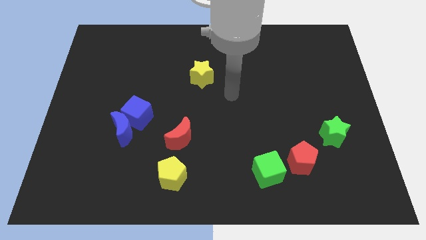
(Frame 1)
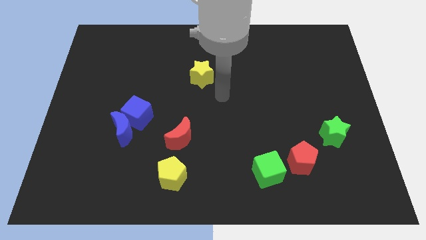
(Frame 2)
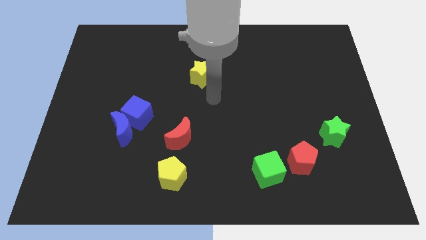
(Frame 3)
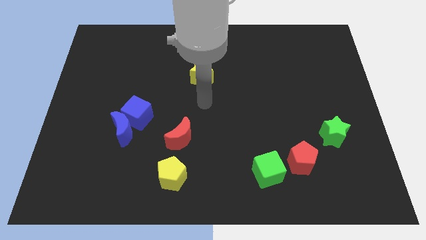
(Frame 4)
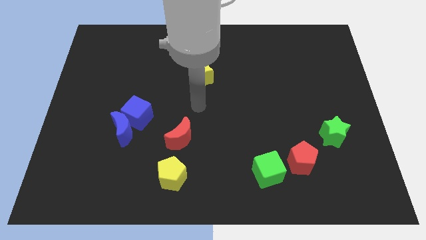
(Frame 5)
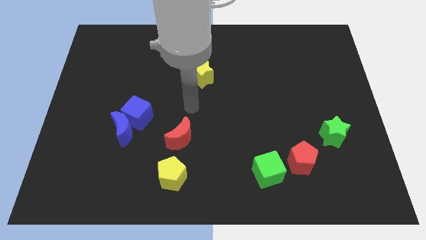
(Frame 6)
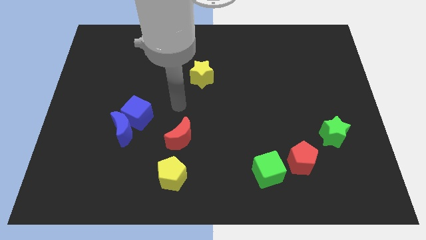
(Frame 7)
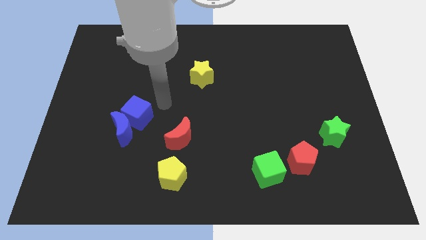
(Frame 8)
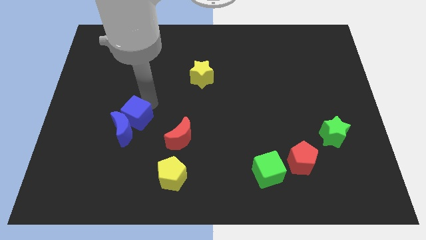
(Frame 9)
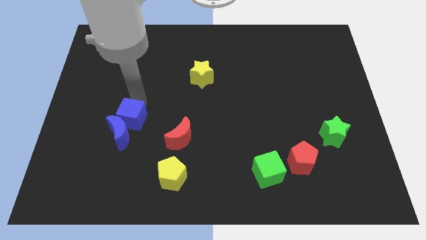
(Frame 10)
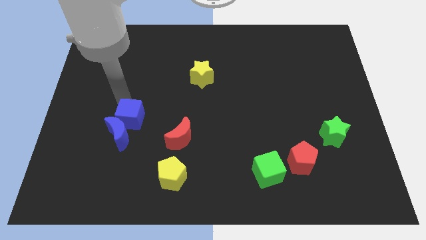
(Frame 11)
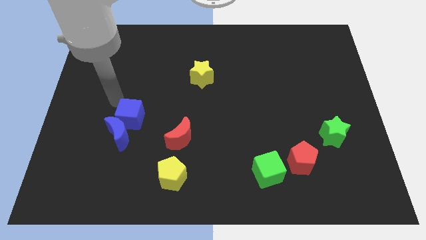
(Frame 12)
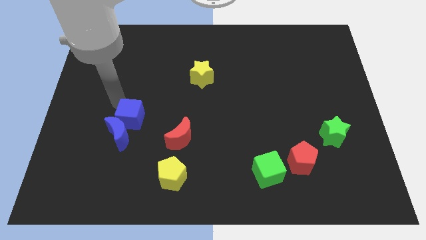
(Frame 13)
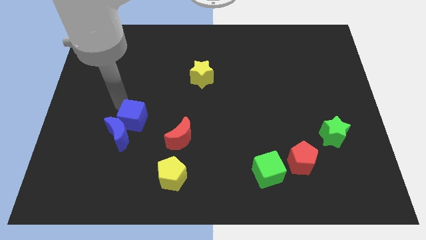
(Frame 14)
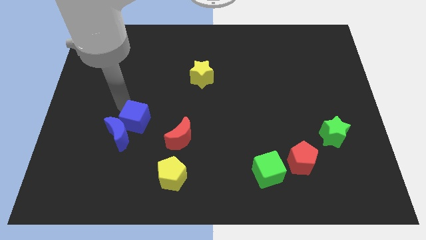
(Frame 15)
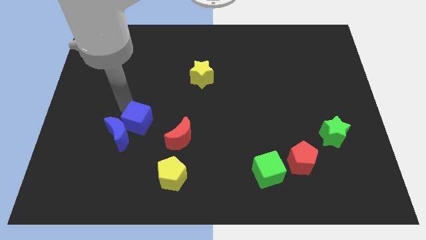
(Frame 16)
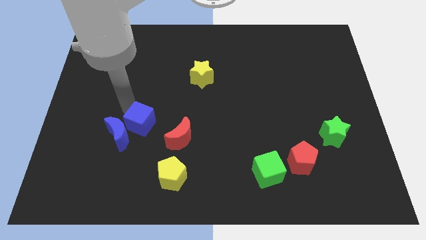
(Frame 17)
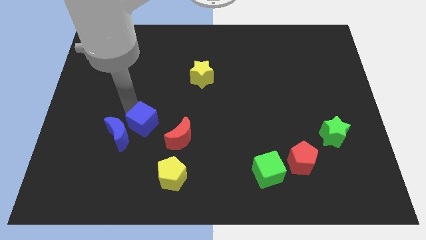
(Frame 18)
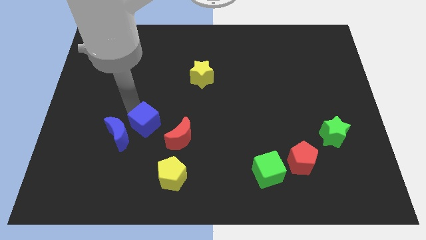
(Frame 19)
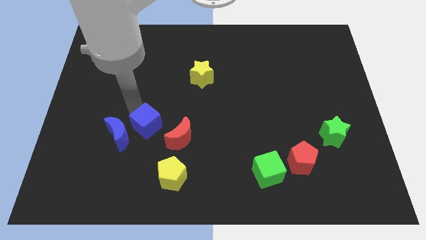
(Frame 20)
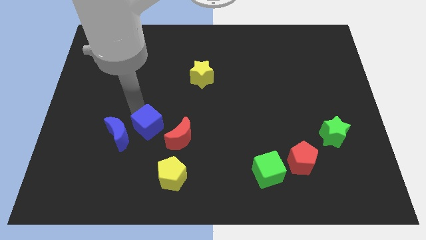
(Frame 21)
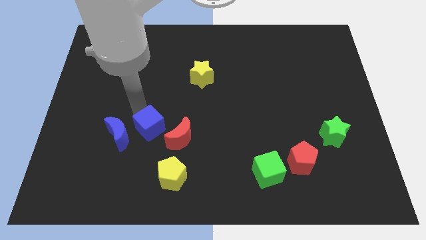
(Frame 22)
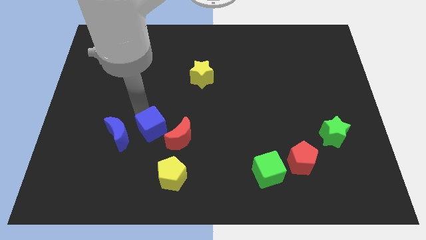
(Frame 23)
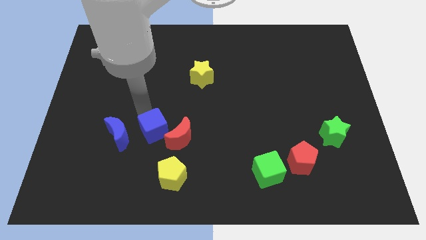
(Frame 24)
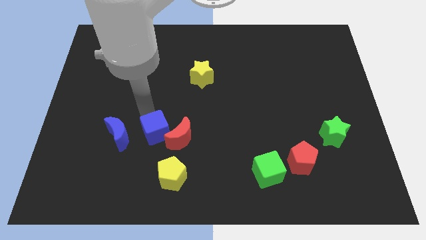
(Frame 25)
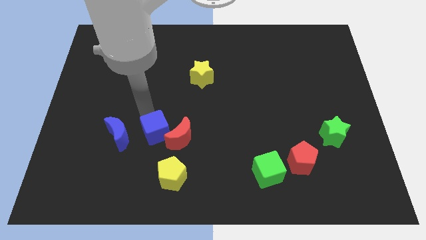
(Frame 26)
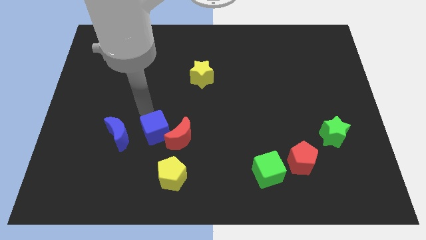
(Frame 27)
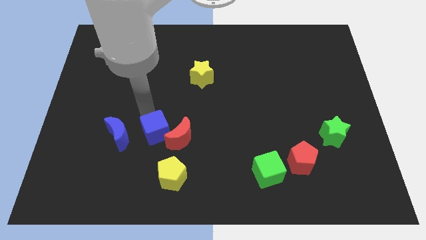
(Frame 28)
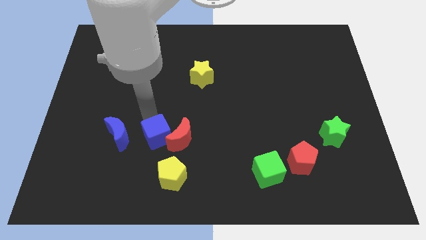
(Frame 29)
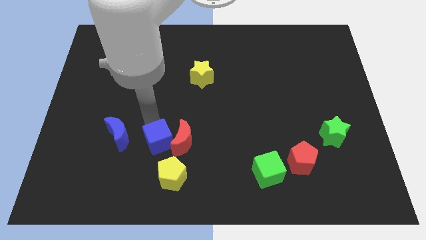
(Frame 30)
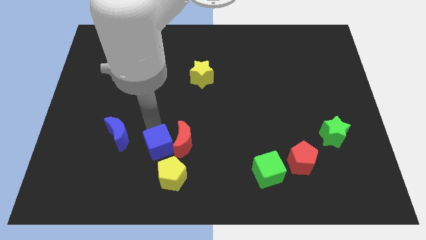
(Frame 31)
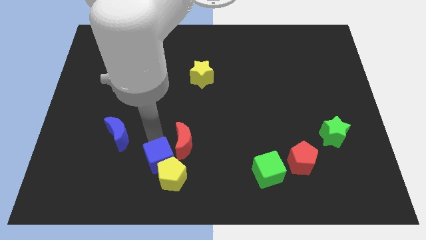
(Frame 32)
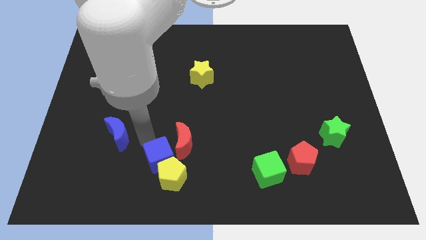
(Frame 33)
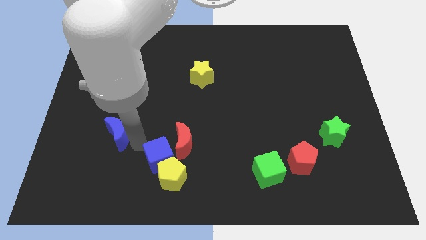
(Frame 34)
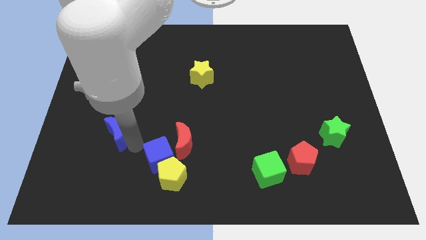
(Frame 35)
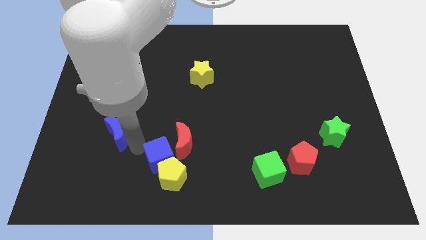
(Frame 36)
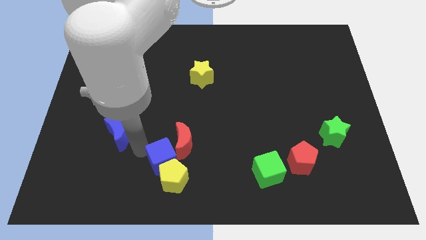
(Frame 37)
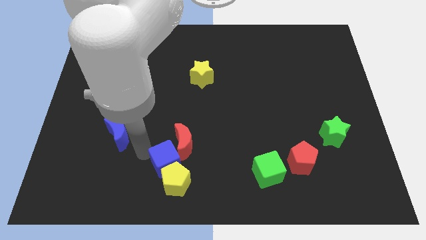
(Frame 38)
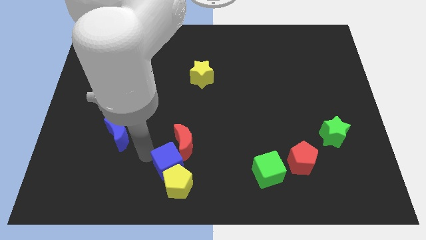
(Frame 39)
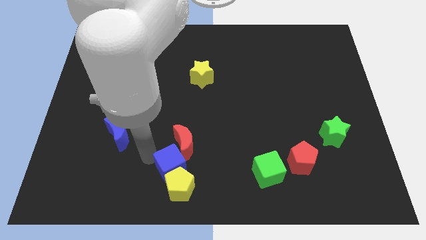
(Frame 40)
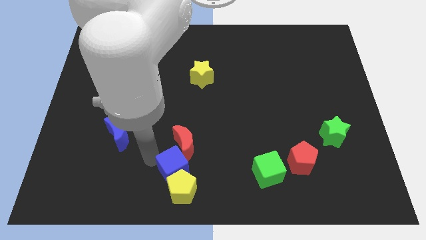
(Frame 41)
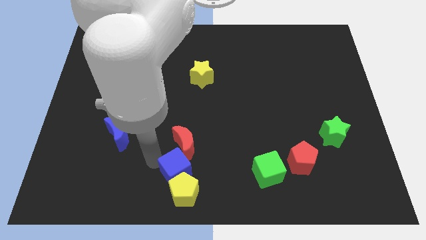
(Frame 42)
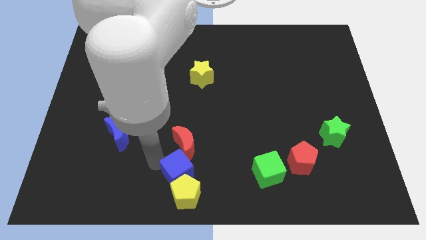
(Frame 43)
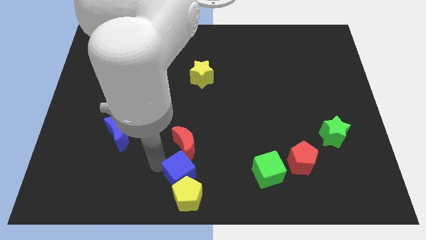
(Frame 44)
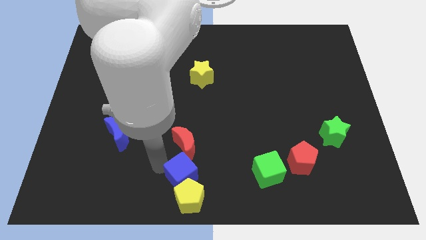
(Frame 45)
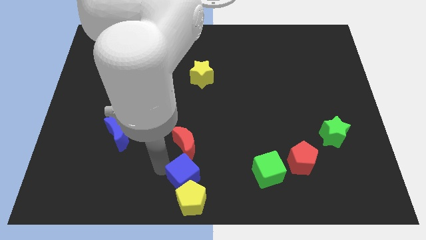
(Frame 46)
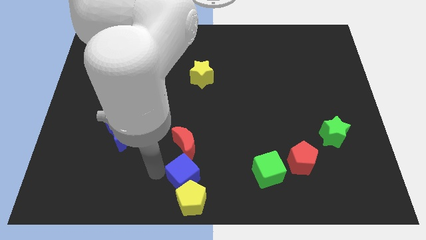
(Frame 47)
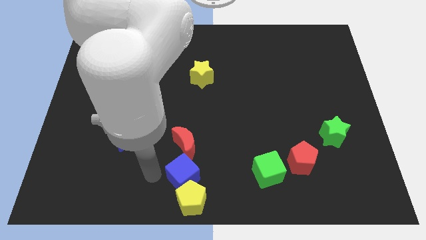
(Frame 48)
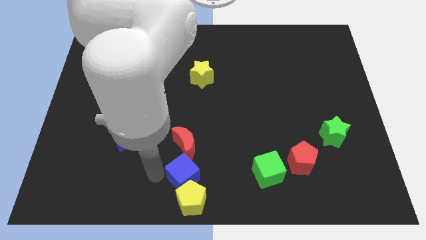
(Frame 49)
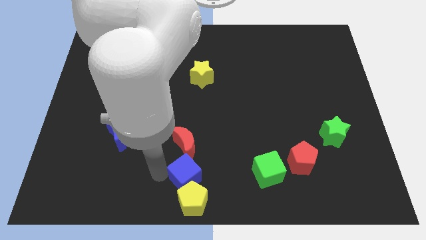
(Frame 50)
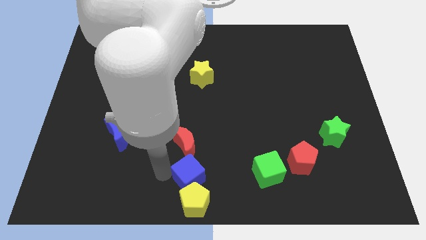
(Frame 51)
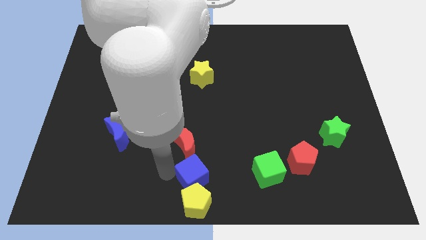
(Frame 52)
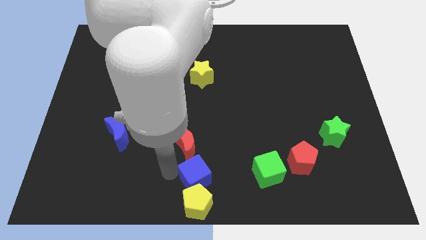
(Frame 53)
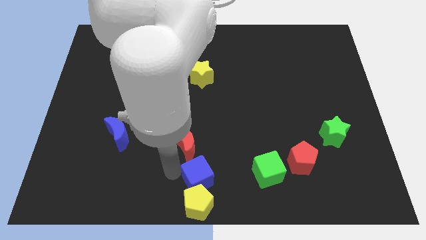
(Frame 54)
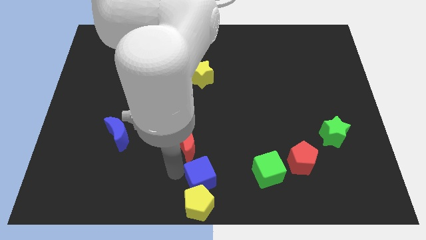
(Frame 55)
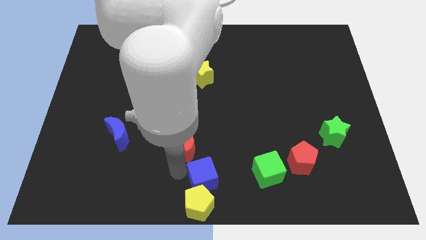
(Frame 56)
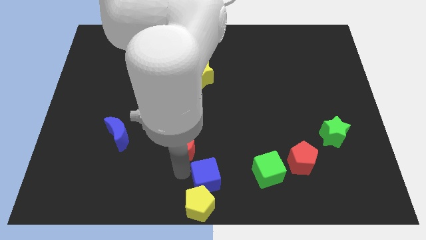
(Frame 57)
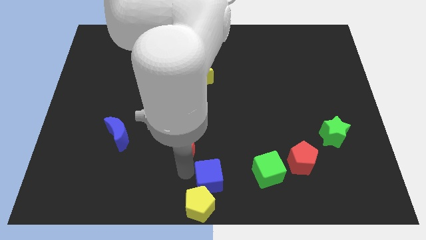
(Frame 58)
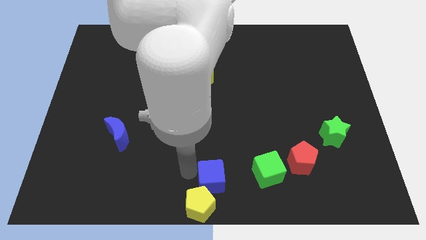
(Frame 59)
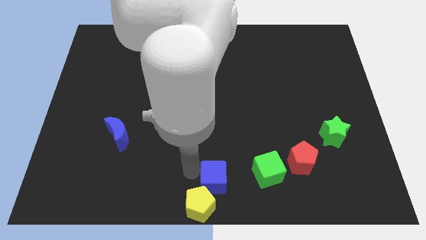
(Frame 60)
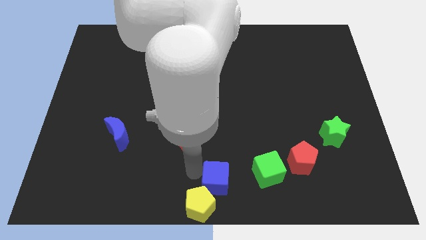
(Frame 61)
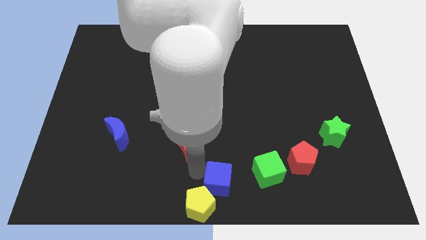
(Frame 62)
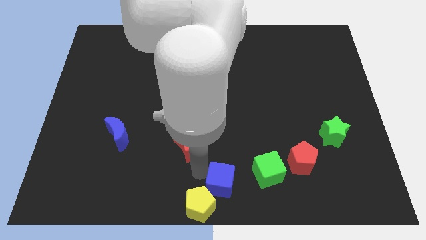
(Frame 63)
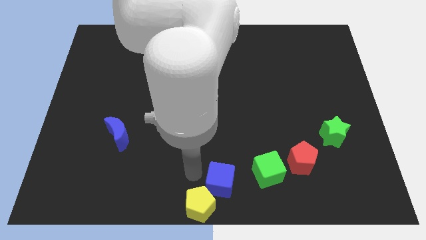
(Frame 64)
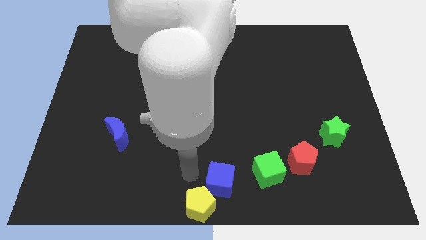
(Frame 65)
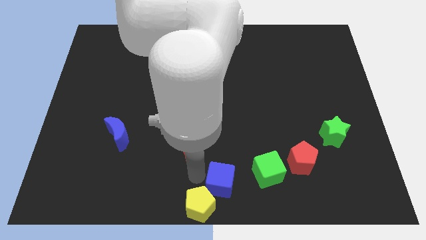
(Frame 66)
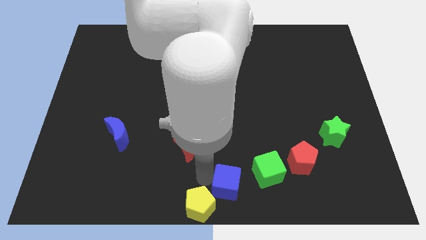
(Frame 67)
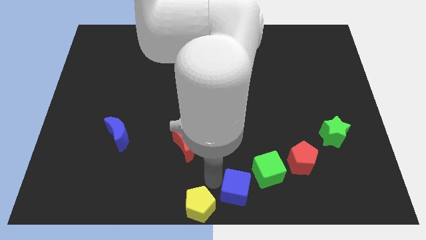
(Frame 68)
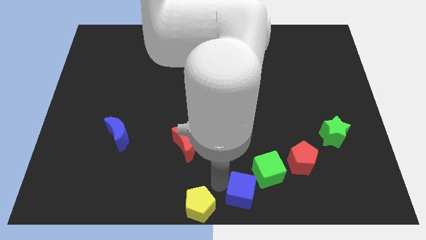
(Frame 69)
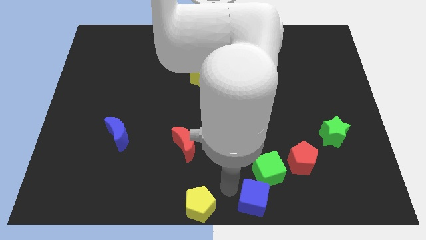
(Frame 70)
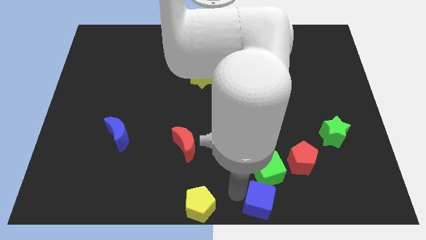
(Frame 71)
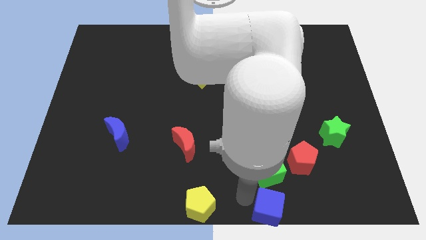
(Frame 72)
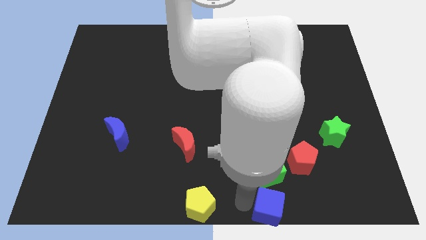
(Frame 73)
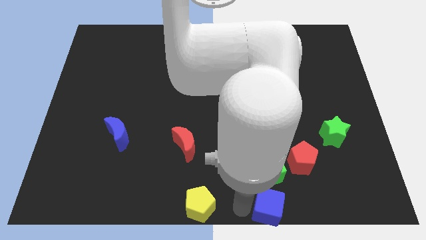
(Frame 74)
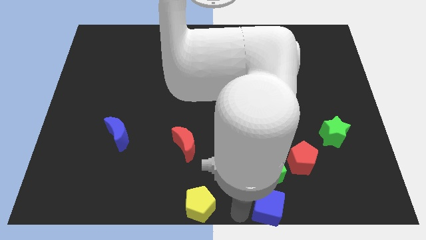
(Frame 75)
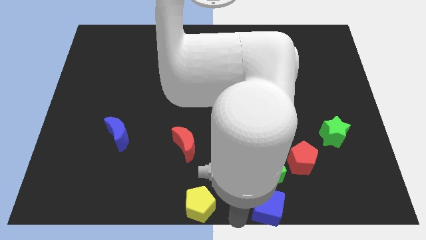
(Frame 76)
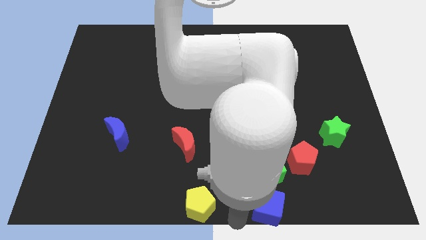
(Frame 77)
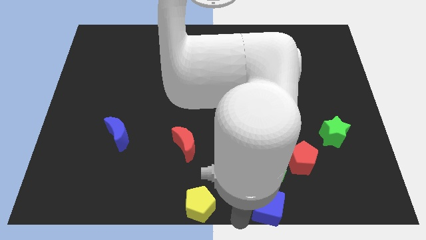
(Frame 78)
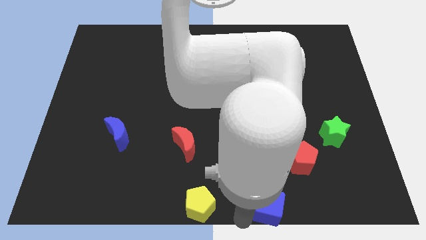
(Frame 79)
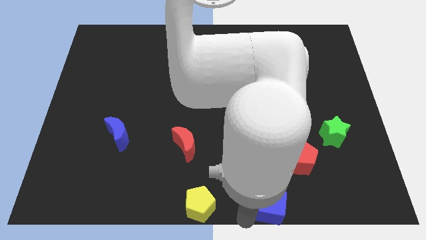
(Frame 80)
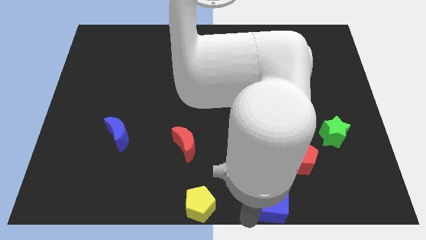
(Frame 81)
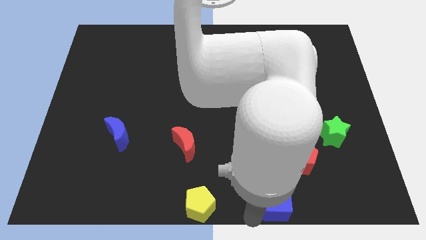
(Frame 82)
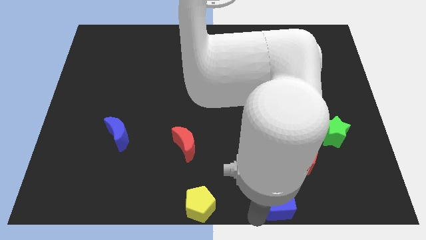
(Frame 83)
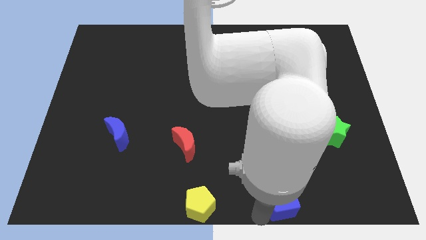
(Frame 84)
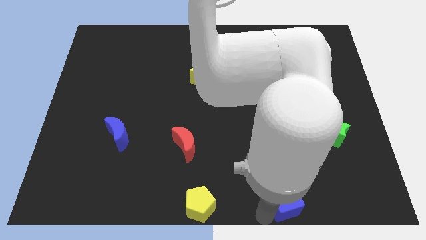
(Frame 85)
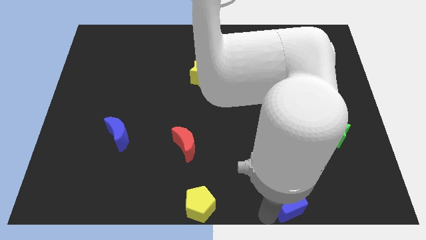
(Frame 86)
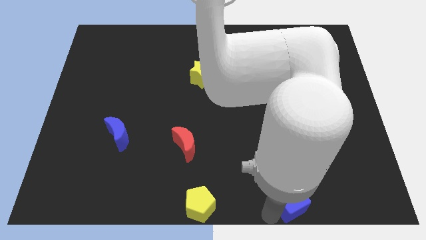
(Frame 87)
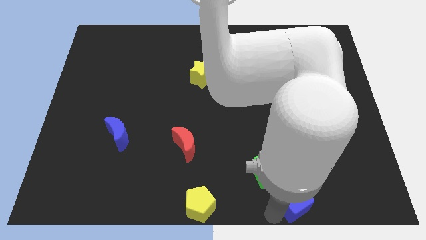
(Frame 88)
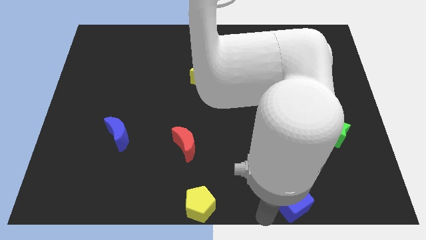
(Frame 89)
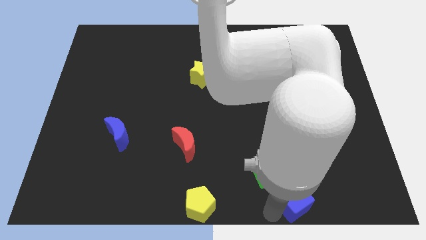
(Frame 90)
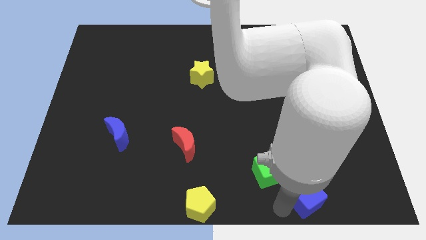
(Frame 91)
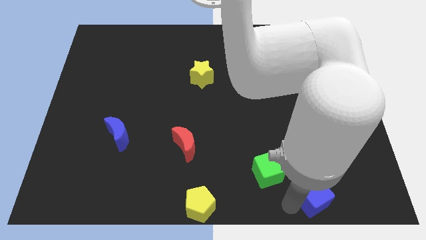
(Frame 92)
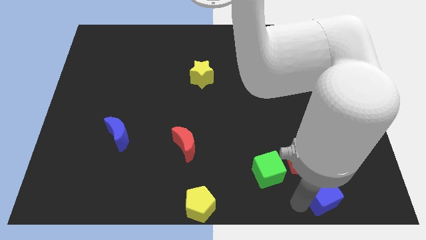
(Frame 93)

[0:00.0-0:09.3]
put the blue cube to the bottom right of the red pentagon
